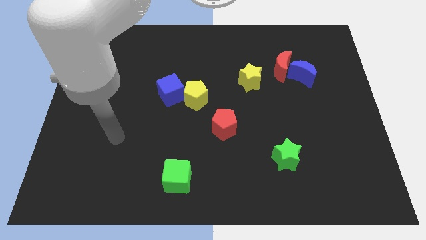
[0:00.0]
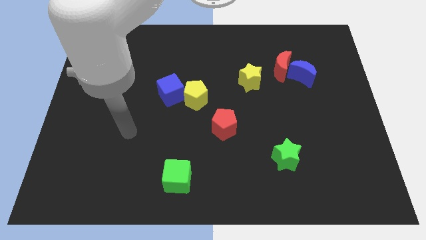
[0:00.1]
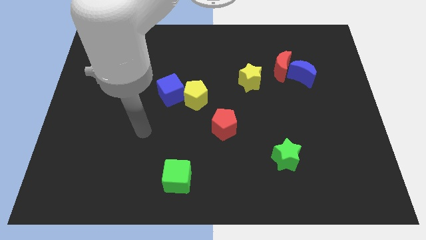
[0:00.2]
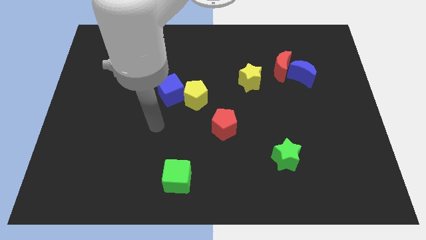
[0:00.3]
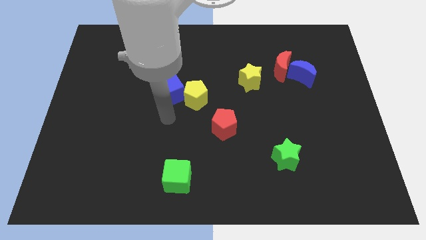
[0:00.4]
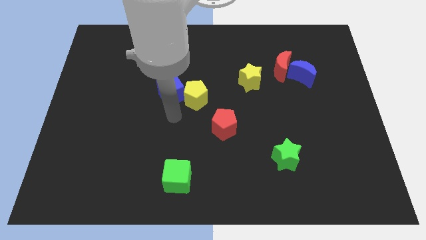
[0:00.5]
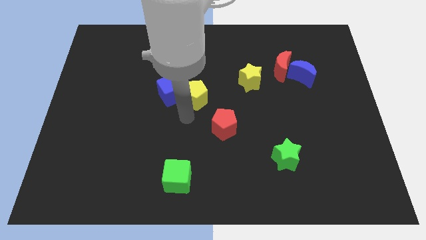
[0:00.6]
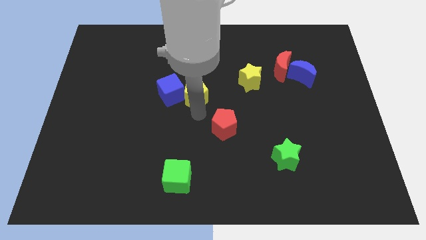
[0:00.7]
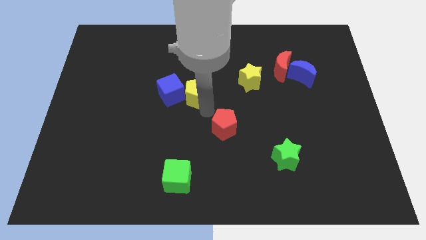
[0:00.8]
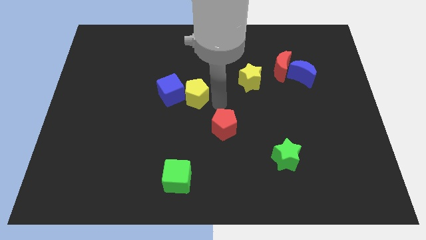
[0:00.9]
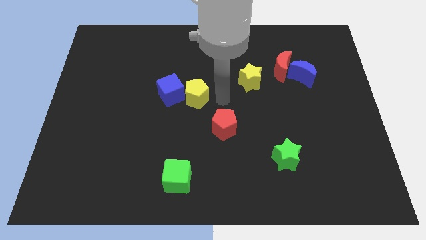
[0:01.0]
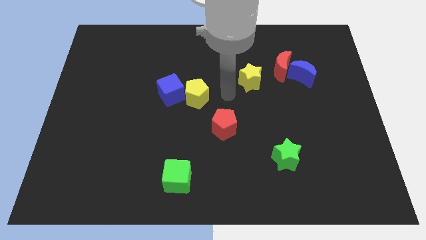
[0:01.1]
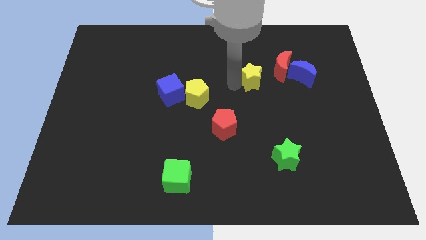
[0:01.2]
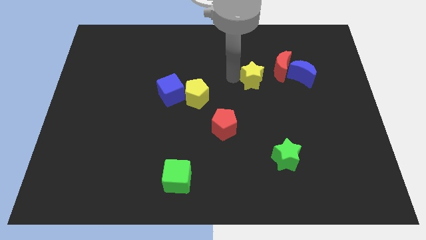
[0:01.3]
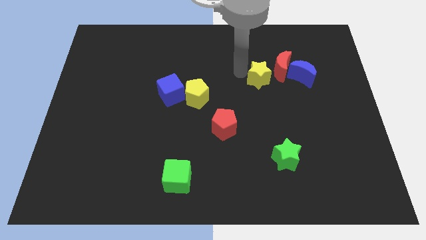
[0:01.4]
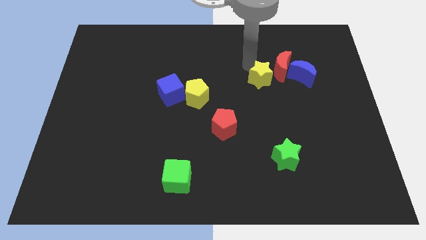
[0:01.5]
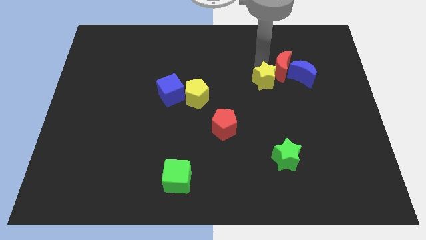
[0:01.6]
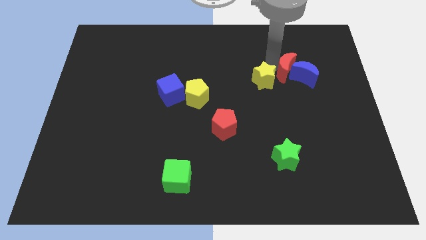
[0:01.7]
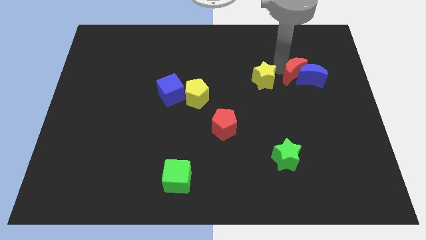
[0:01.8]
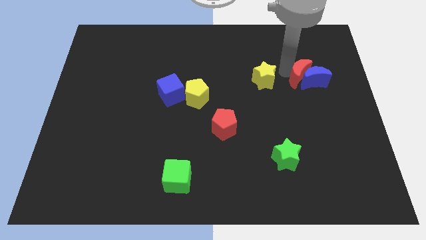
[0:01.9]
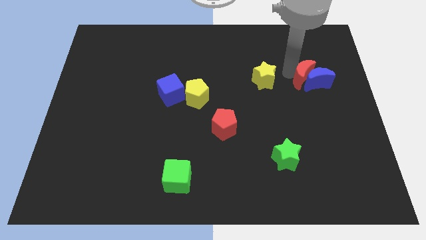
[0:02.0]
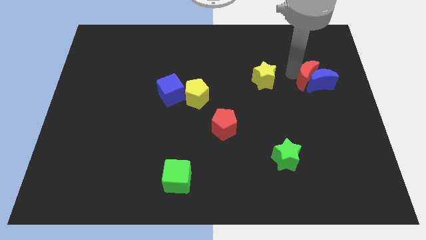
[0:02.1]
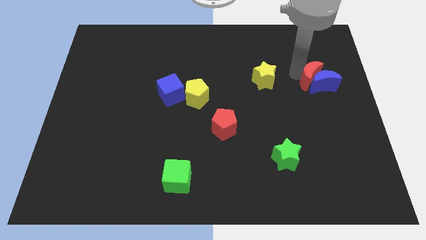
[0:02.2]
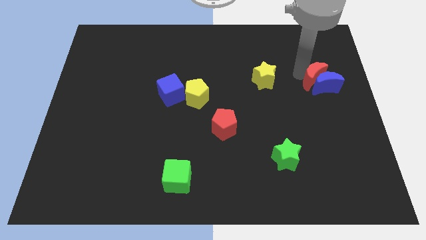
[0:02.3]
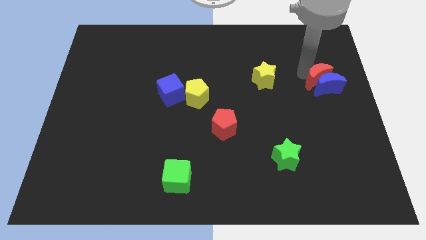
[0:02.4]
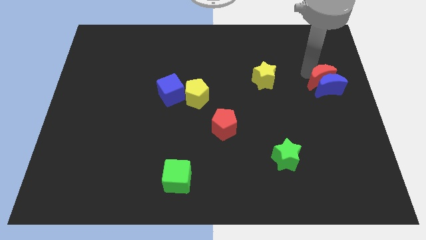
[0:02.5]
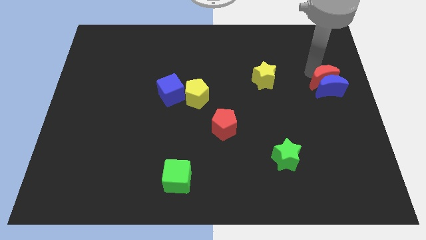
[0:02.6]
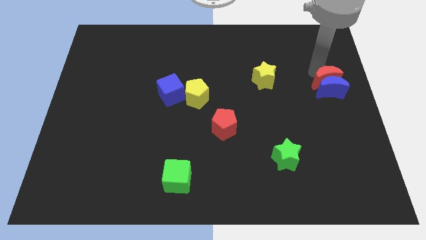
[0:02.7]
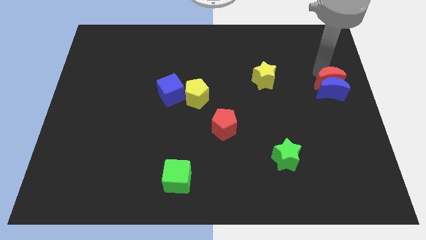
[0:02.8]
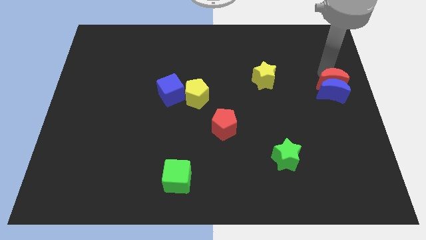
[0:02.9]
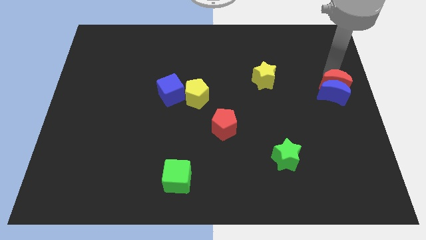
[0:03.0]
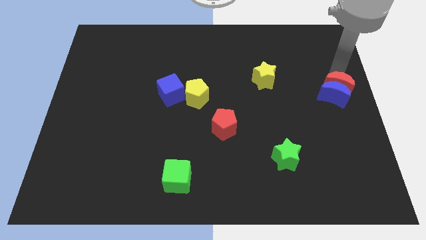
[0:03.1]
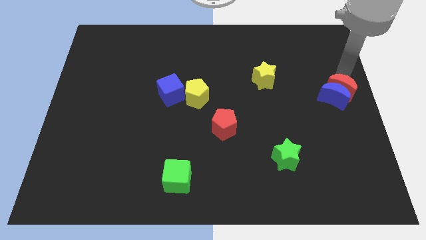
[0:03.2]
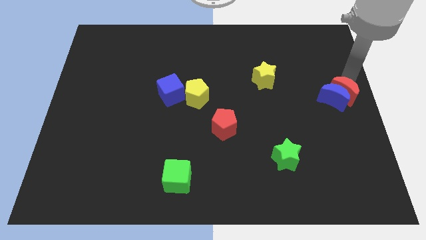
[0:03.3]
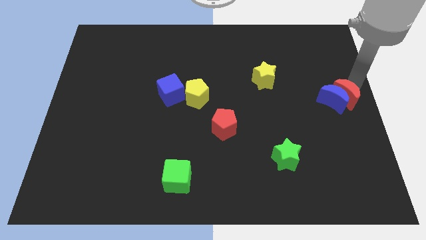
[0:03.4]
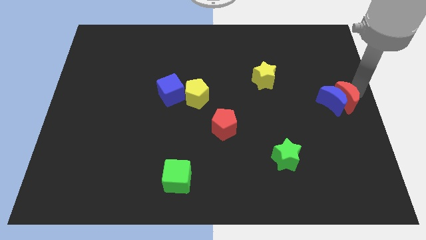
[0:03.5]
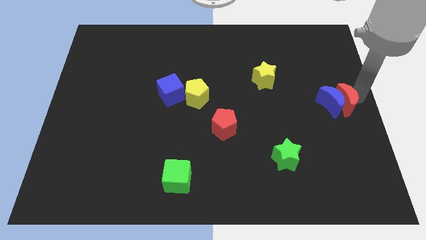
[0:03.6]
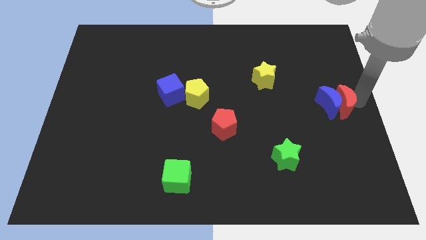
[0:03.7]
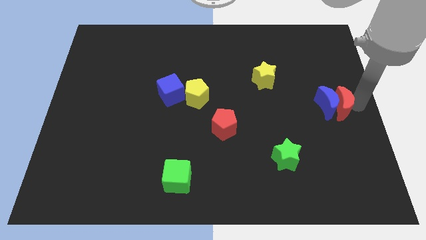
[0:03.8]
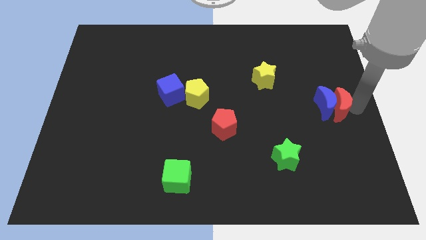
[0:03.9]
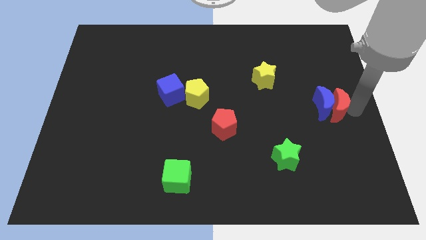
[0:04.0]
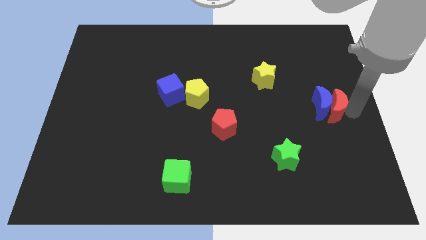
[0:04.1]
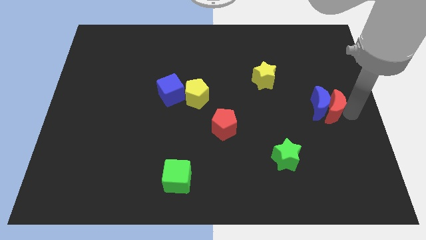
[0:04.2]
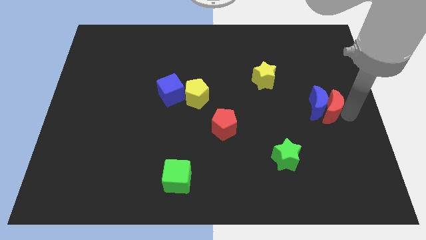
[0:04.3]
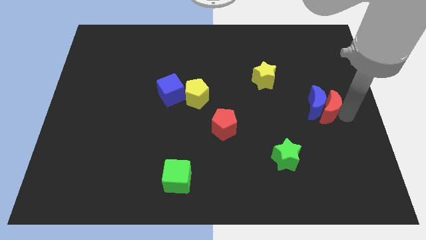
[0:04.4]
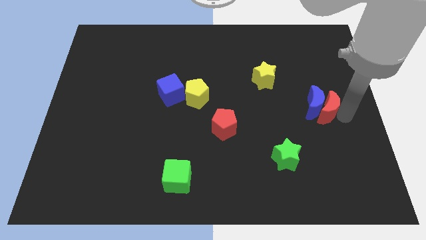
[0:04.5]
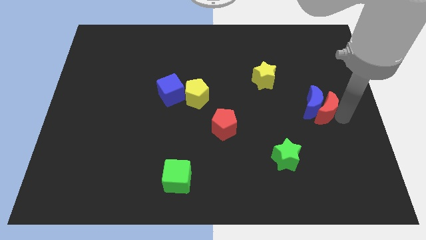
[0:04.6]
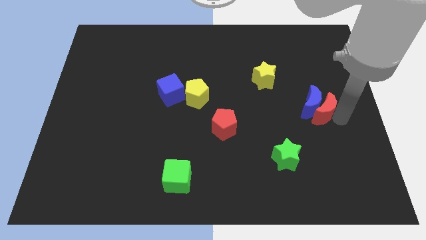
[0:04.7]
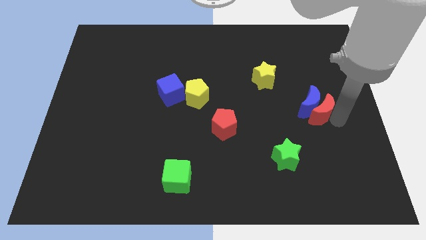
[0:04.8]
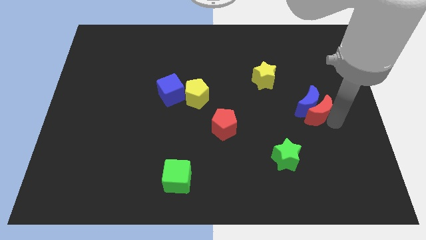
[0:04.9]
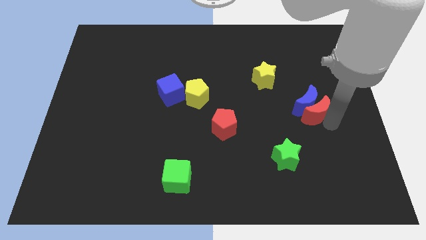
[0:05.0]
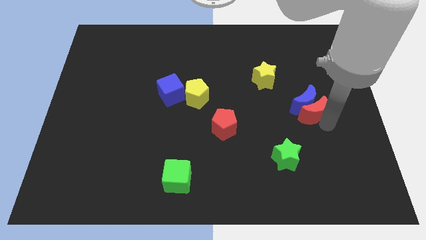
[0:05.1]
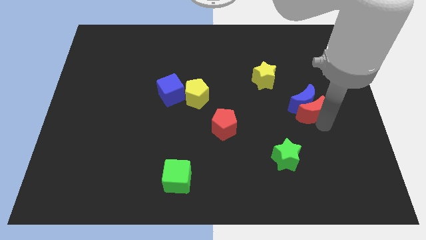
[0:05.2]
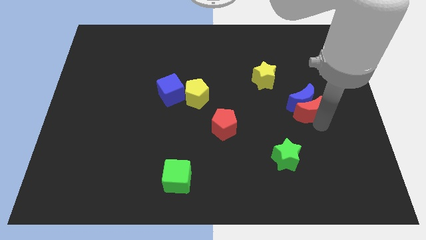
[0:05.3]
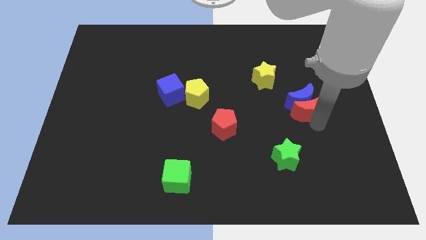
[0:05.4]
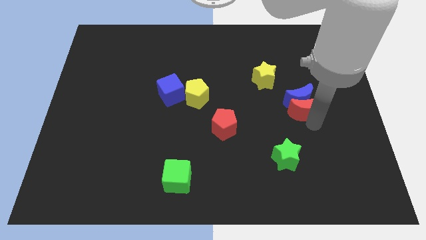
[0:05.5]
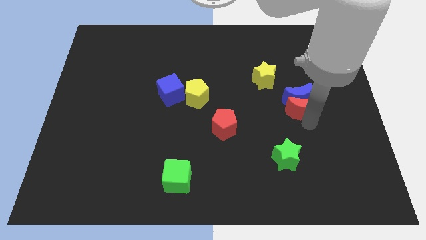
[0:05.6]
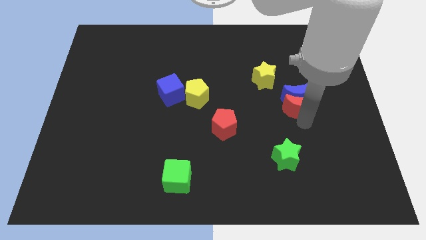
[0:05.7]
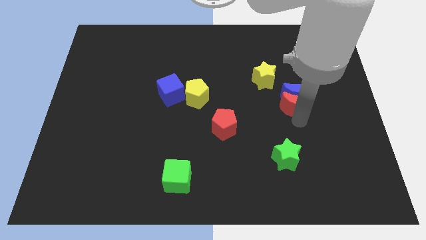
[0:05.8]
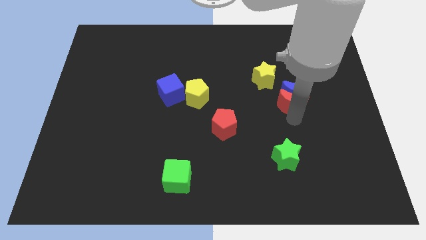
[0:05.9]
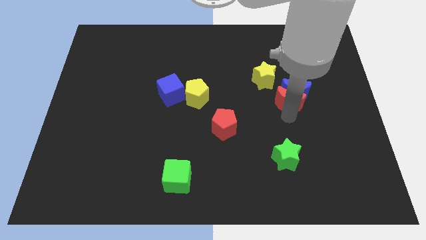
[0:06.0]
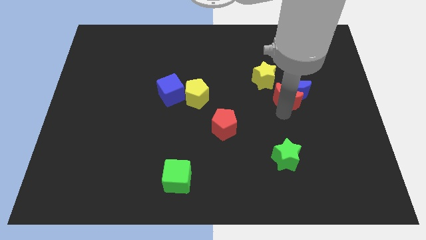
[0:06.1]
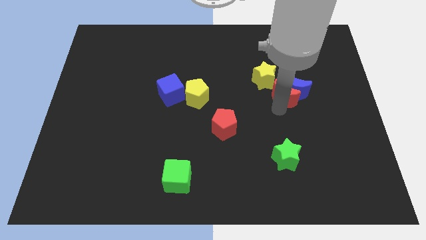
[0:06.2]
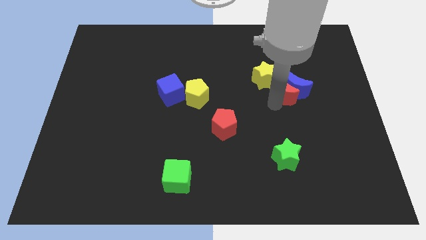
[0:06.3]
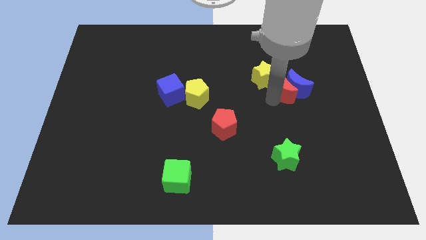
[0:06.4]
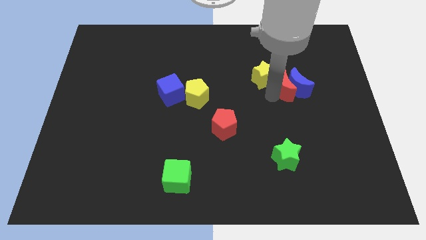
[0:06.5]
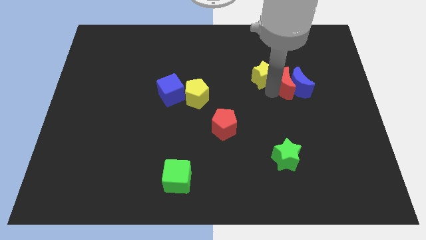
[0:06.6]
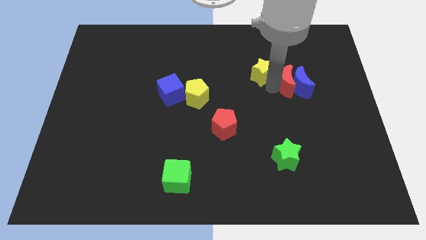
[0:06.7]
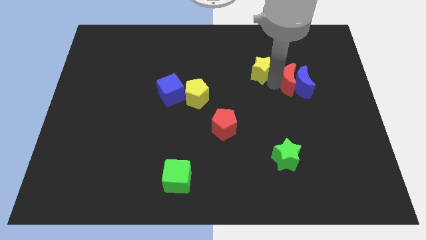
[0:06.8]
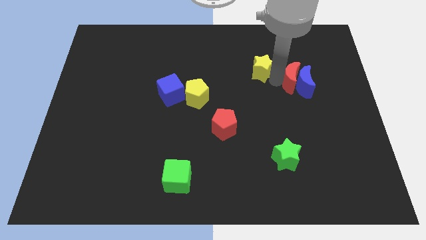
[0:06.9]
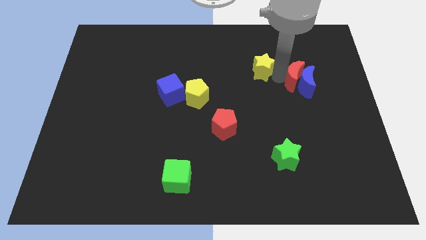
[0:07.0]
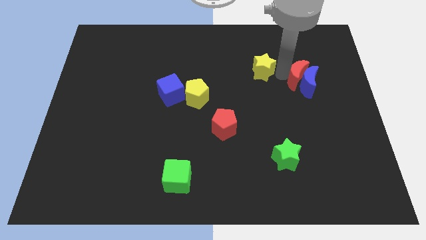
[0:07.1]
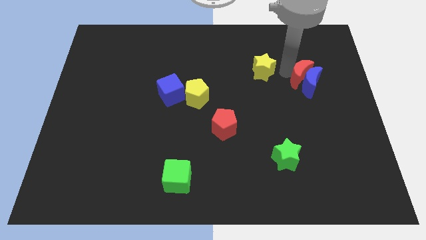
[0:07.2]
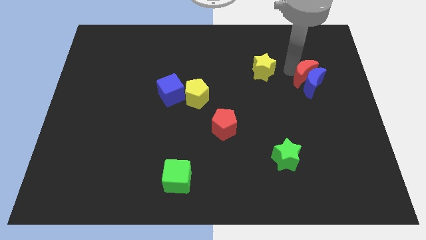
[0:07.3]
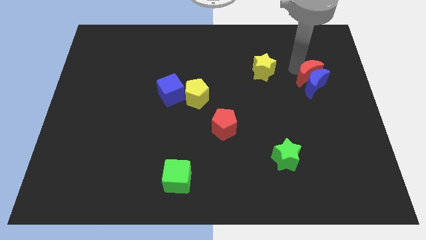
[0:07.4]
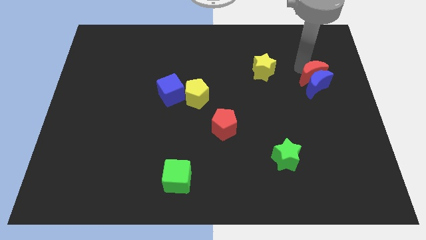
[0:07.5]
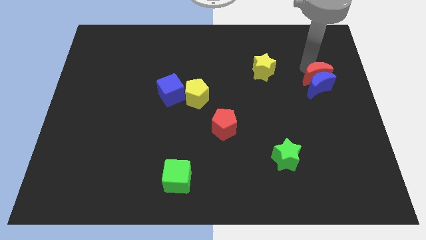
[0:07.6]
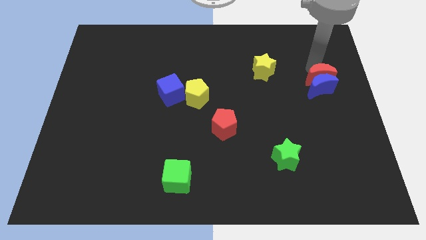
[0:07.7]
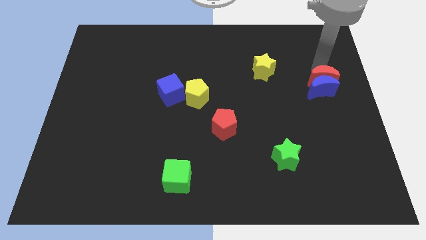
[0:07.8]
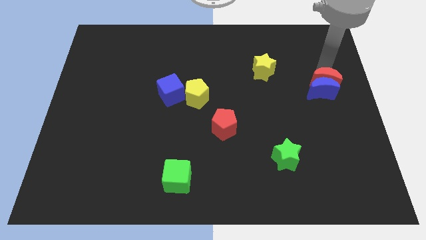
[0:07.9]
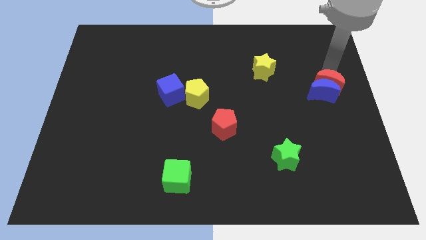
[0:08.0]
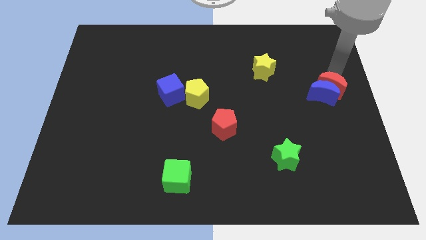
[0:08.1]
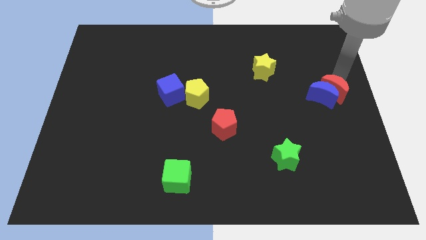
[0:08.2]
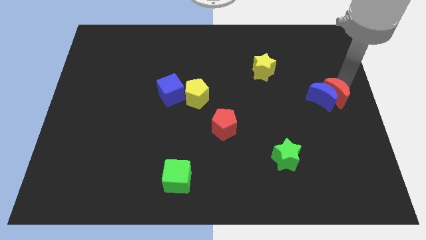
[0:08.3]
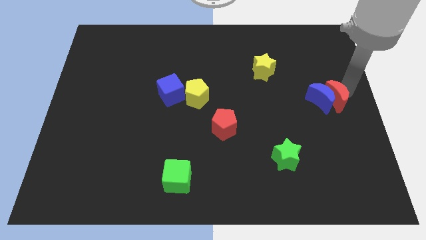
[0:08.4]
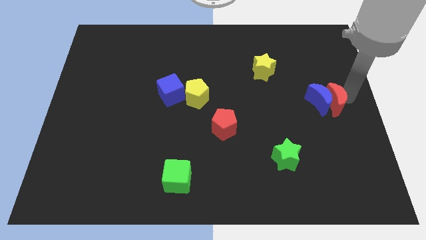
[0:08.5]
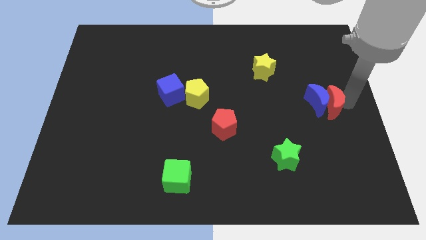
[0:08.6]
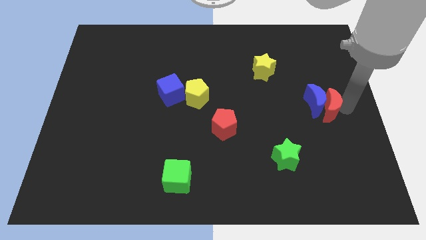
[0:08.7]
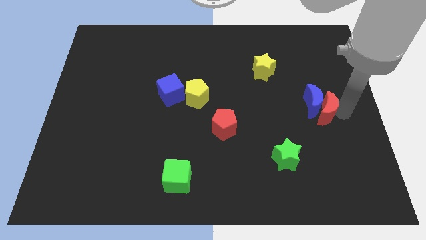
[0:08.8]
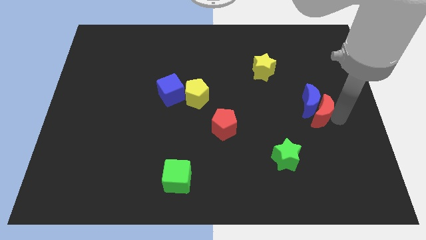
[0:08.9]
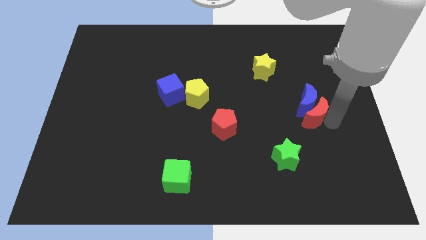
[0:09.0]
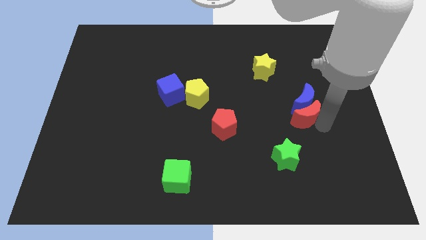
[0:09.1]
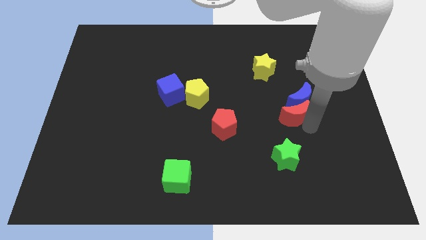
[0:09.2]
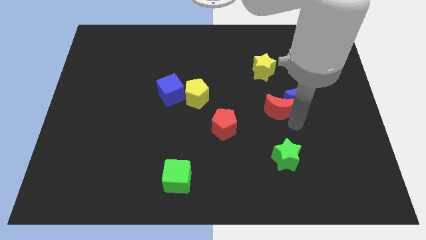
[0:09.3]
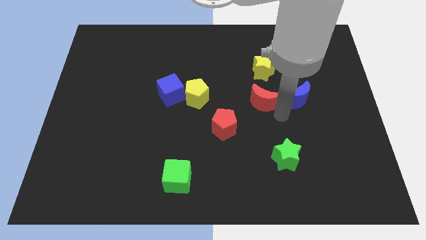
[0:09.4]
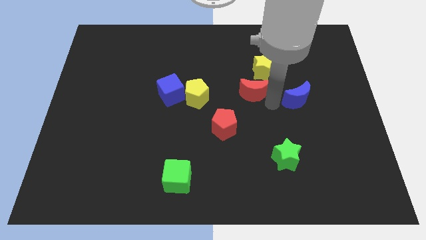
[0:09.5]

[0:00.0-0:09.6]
pull the blue moon apart from the red moon
